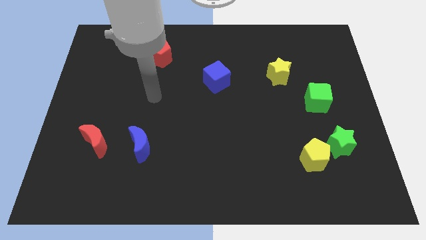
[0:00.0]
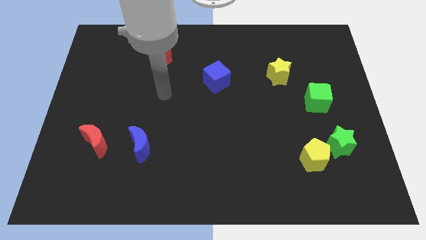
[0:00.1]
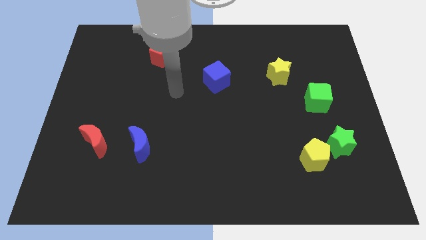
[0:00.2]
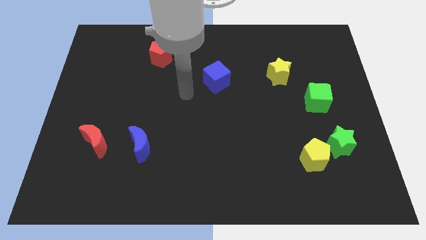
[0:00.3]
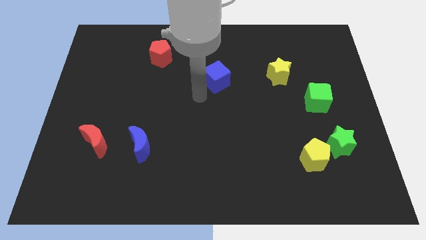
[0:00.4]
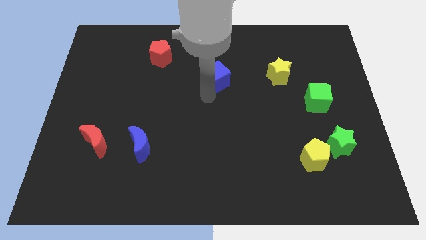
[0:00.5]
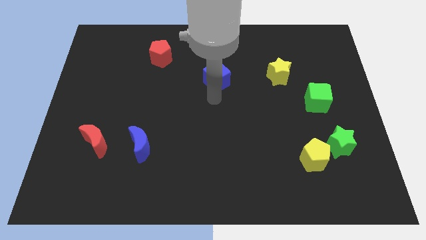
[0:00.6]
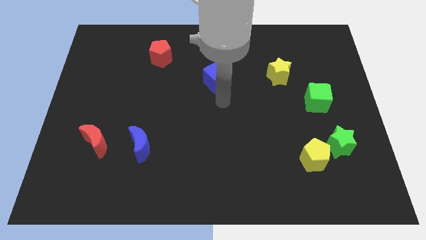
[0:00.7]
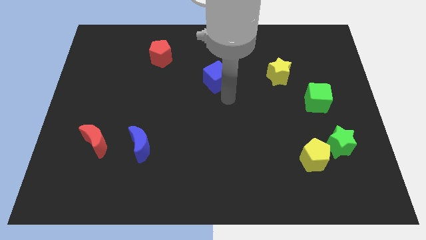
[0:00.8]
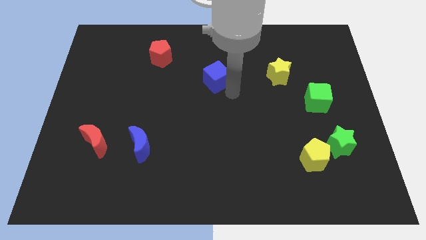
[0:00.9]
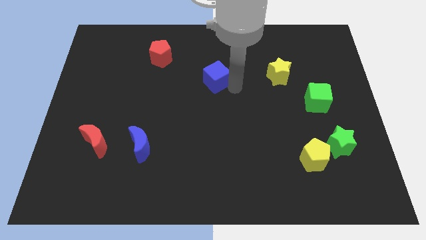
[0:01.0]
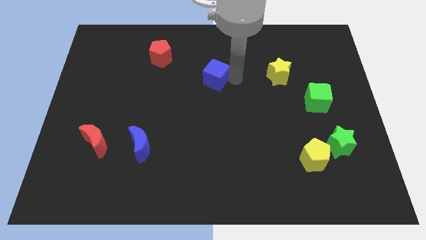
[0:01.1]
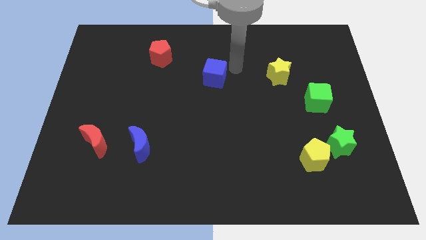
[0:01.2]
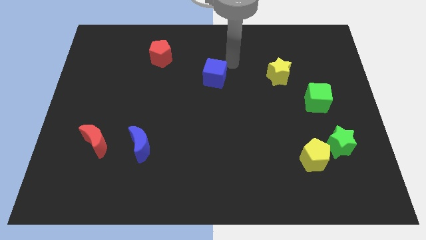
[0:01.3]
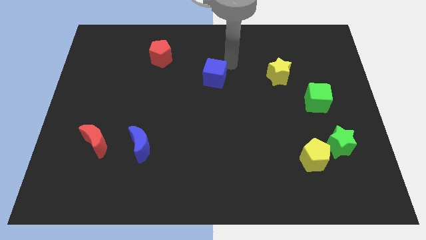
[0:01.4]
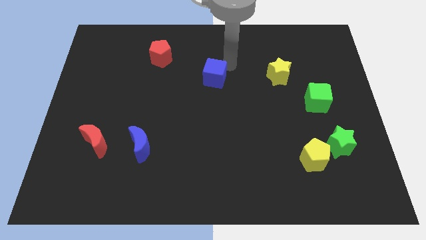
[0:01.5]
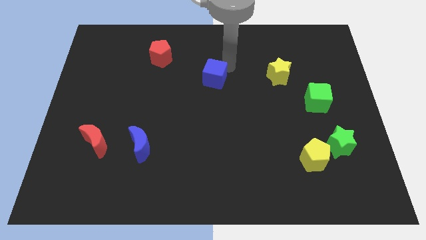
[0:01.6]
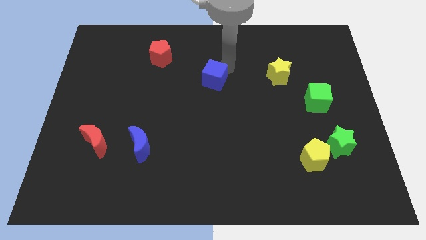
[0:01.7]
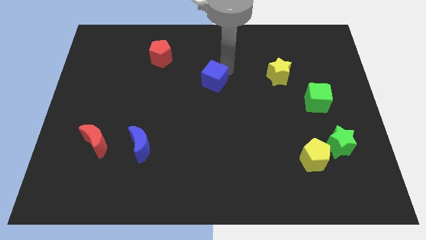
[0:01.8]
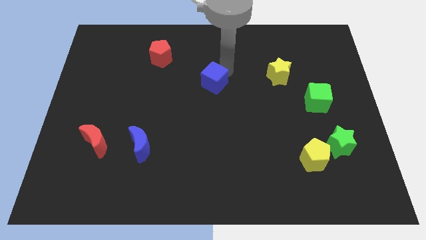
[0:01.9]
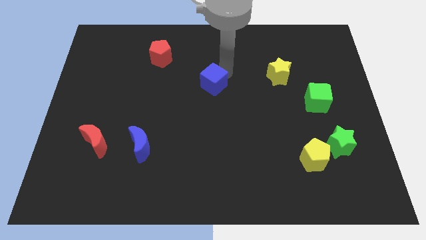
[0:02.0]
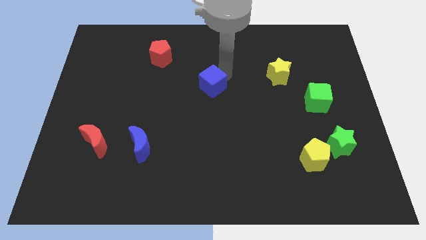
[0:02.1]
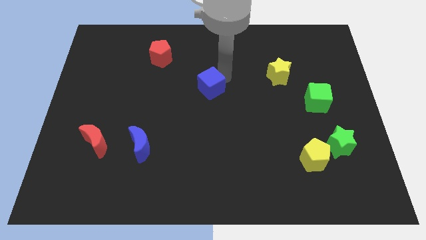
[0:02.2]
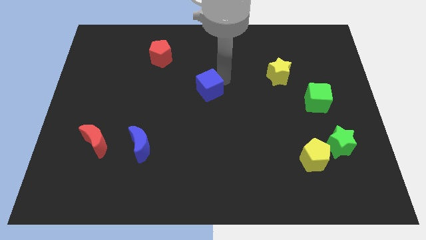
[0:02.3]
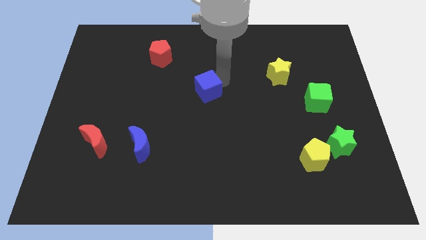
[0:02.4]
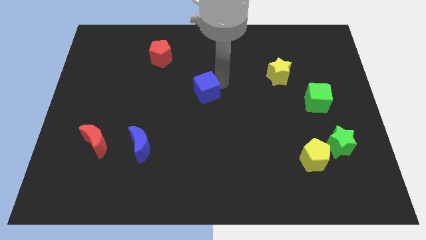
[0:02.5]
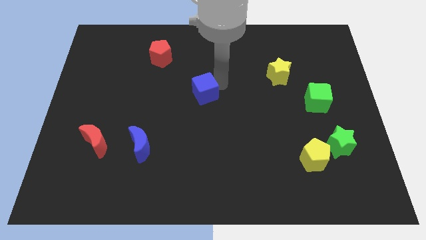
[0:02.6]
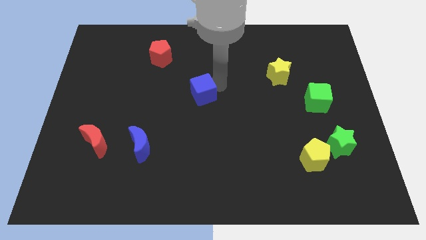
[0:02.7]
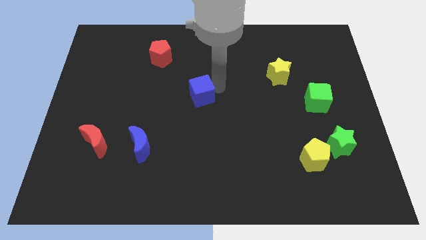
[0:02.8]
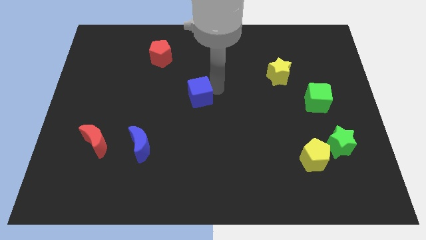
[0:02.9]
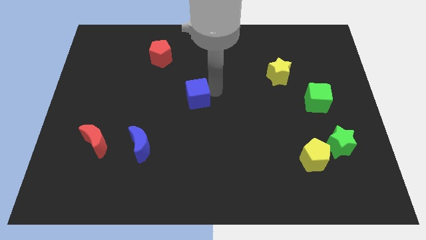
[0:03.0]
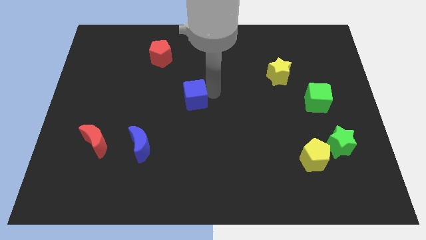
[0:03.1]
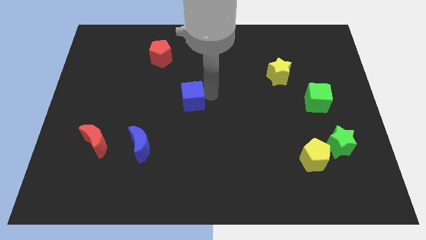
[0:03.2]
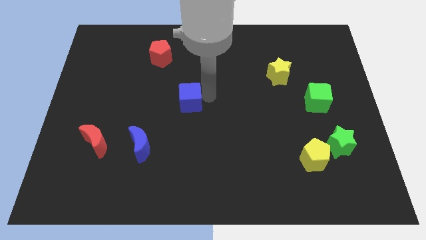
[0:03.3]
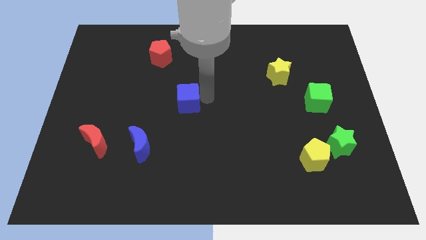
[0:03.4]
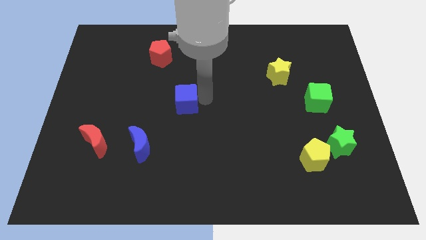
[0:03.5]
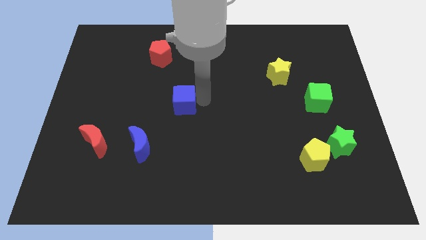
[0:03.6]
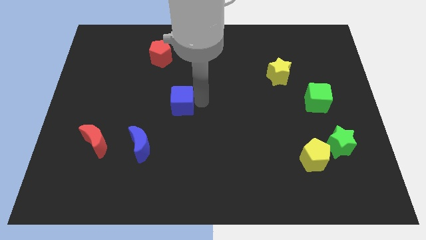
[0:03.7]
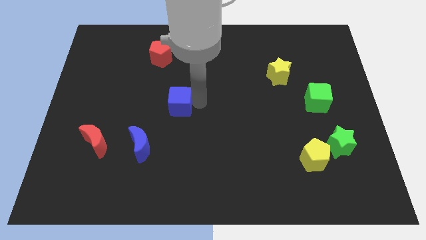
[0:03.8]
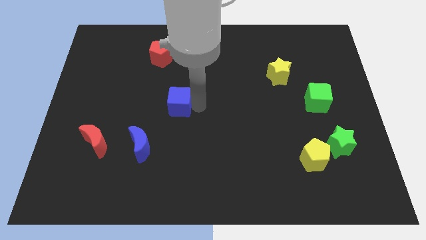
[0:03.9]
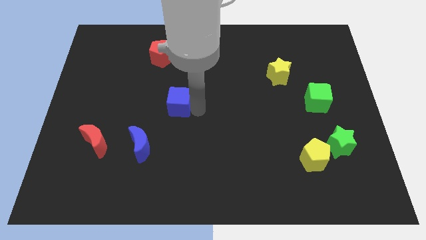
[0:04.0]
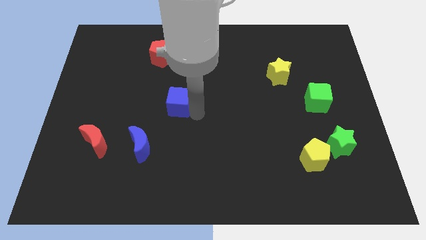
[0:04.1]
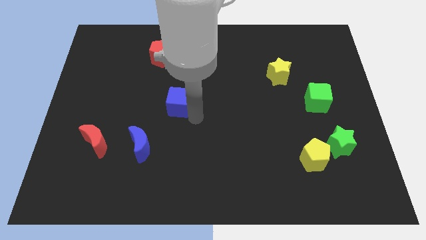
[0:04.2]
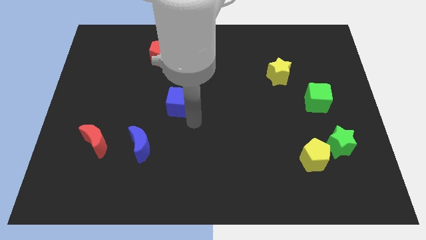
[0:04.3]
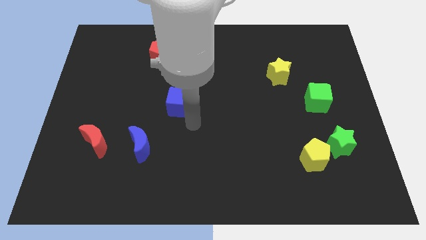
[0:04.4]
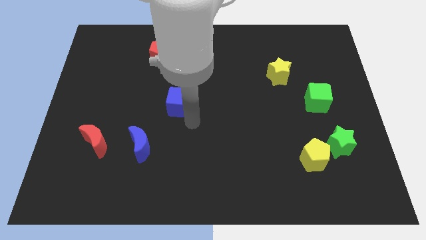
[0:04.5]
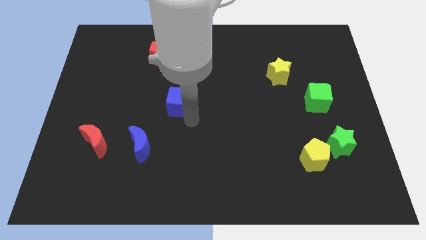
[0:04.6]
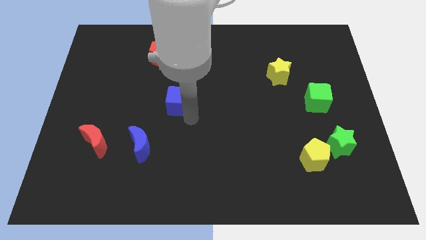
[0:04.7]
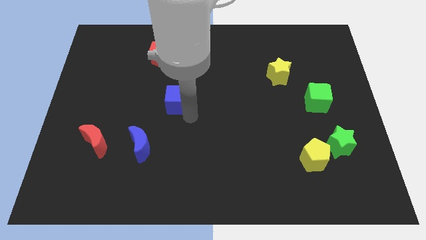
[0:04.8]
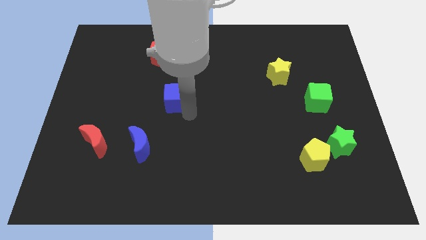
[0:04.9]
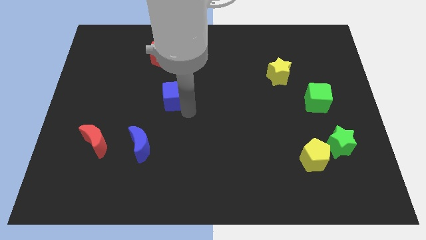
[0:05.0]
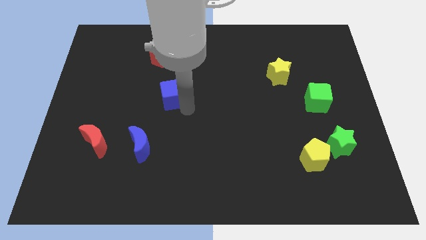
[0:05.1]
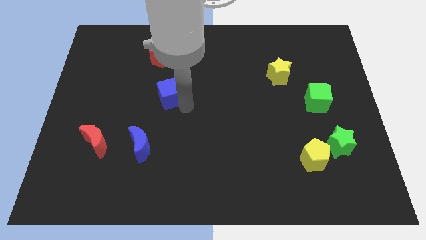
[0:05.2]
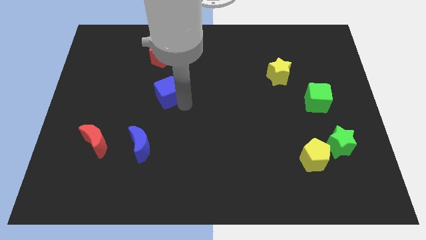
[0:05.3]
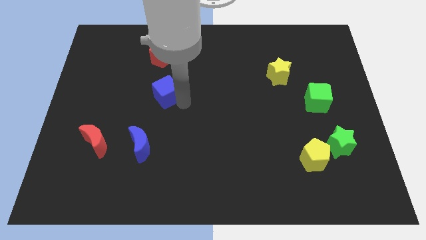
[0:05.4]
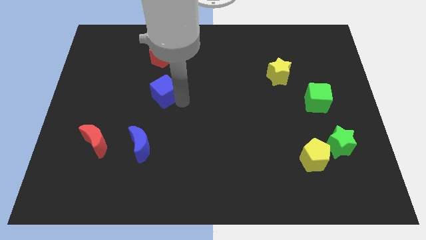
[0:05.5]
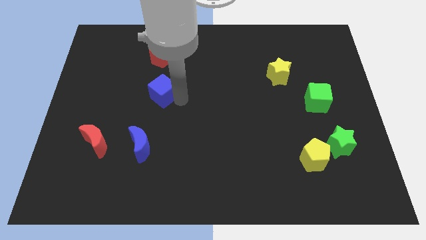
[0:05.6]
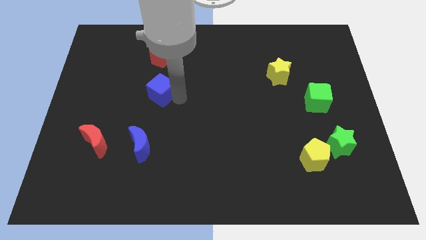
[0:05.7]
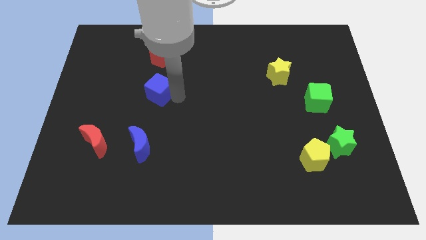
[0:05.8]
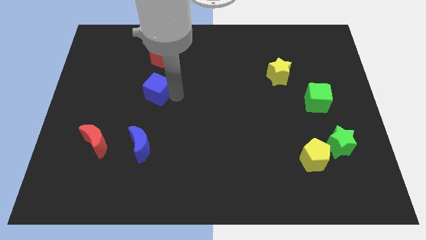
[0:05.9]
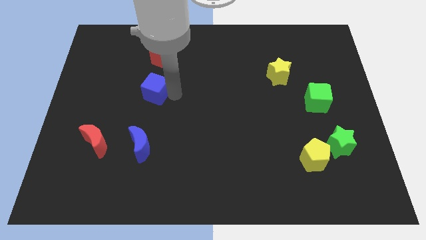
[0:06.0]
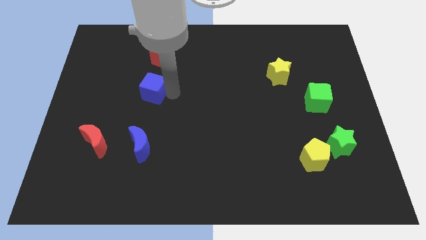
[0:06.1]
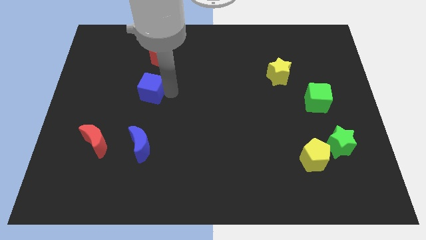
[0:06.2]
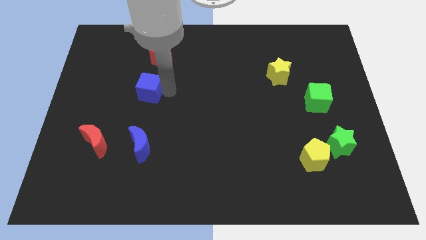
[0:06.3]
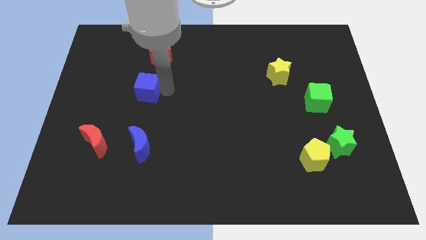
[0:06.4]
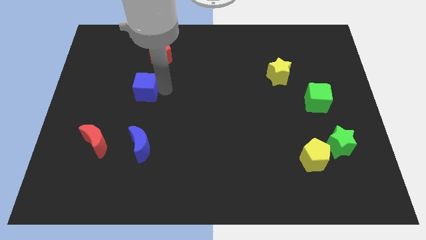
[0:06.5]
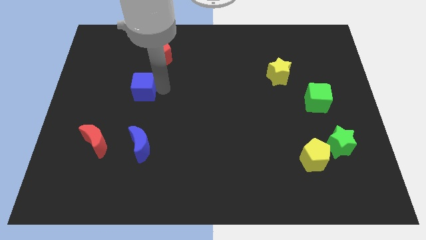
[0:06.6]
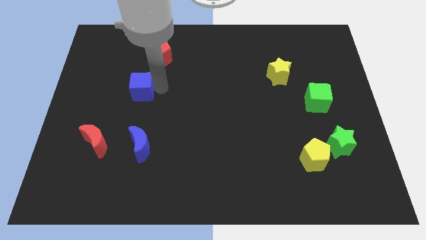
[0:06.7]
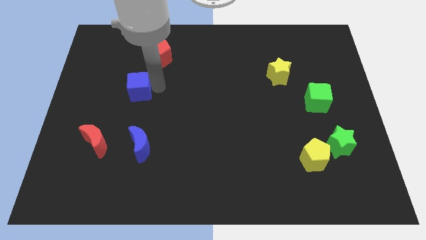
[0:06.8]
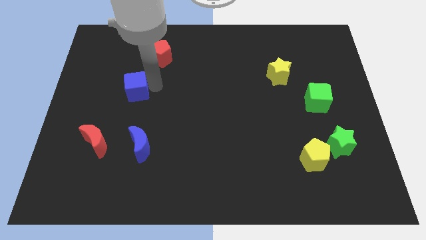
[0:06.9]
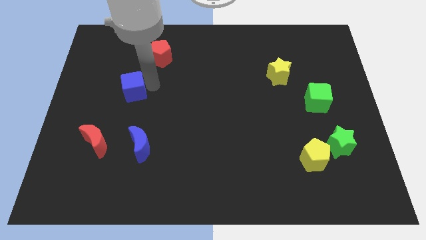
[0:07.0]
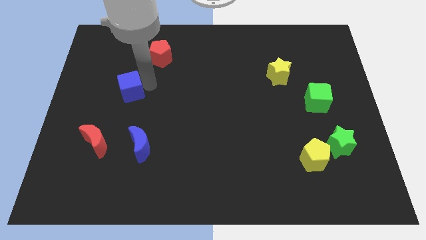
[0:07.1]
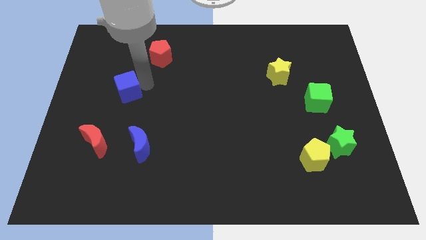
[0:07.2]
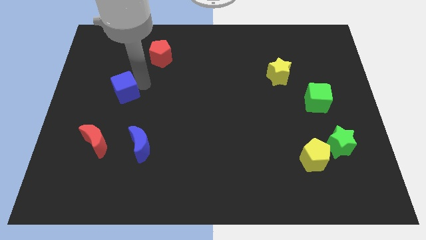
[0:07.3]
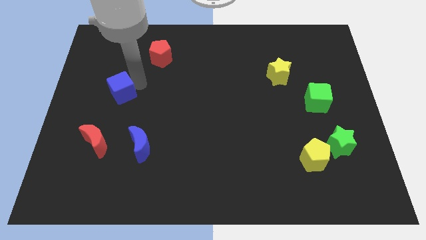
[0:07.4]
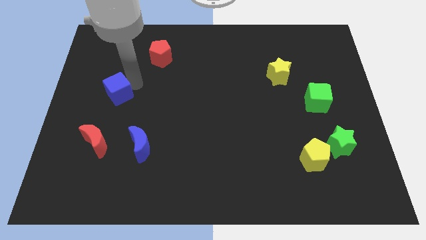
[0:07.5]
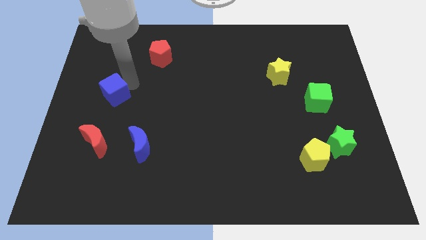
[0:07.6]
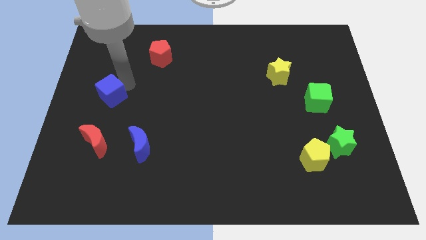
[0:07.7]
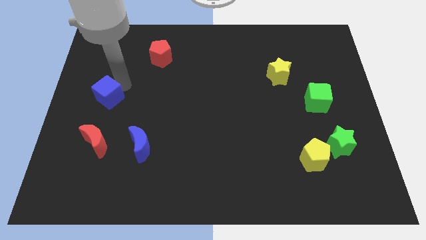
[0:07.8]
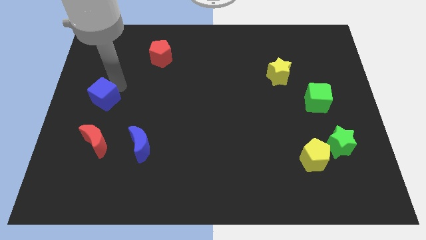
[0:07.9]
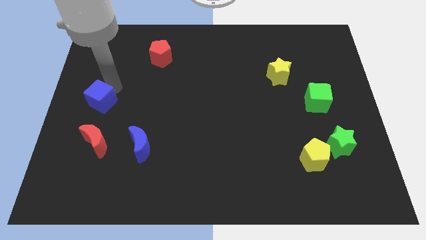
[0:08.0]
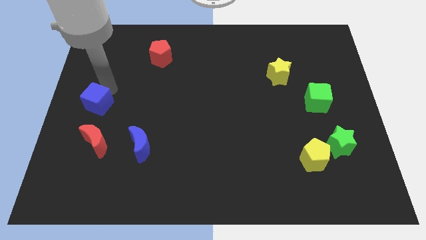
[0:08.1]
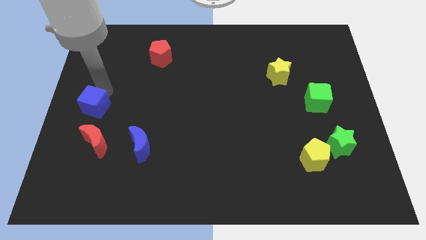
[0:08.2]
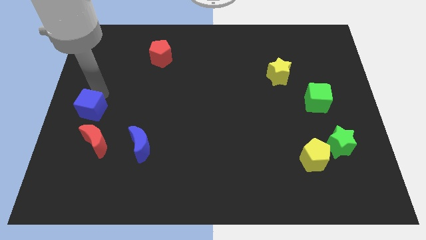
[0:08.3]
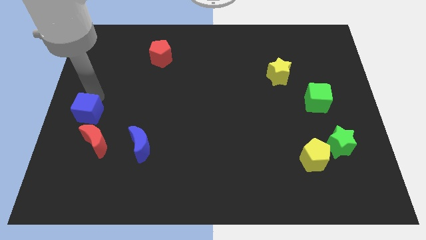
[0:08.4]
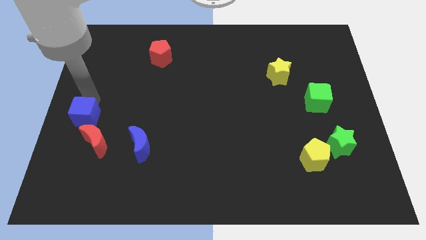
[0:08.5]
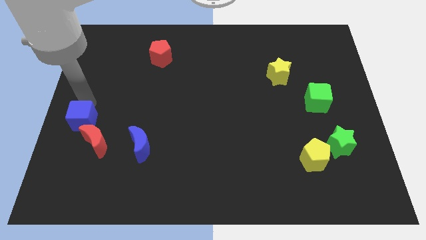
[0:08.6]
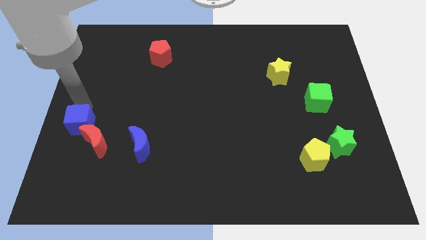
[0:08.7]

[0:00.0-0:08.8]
slide the blue cube down and left
